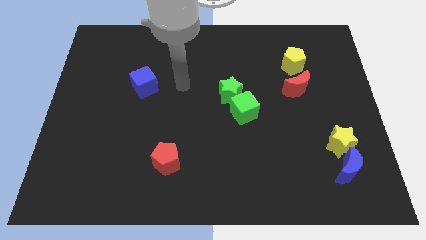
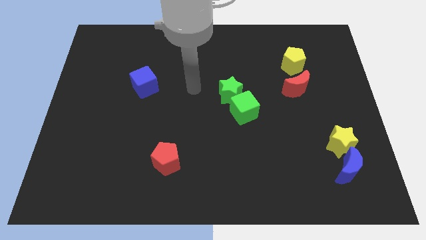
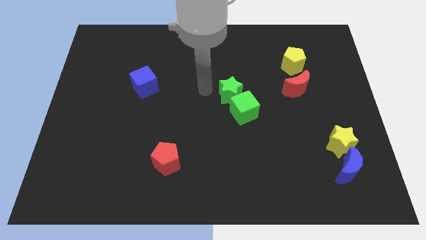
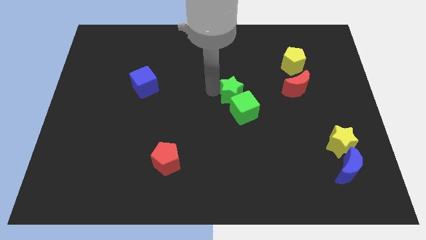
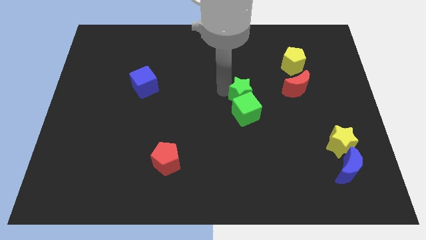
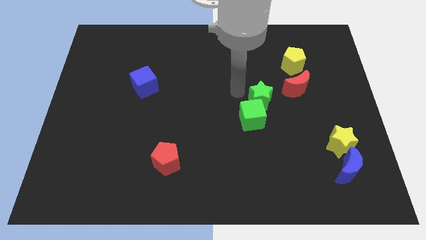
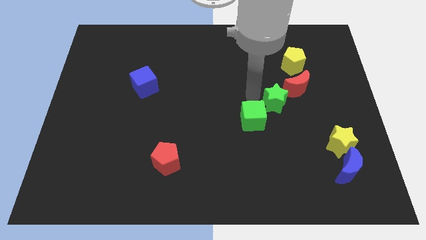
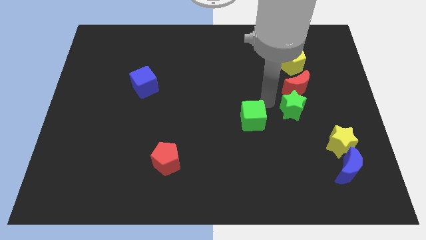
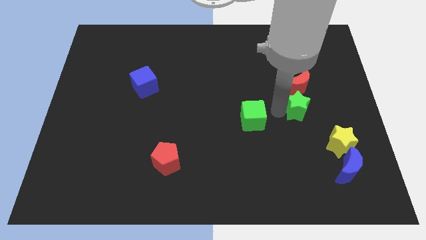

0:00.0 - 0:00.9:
move the green cube away from the green star

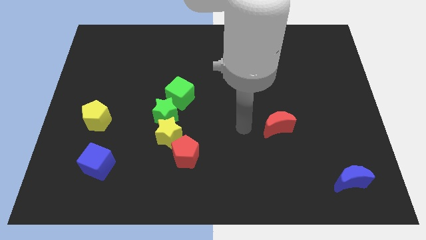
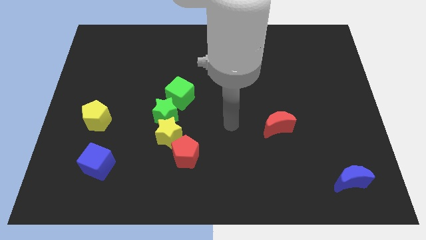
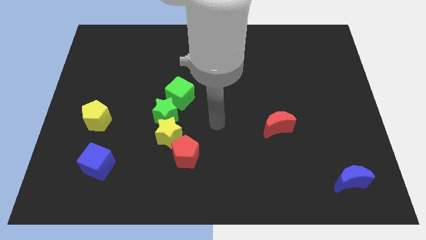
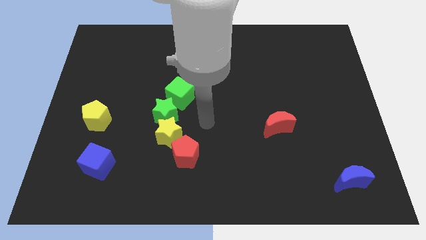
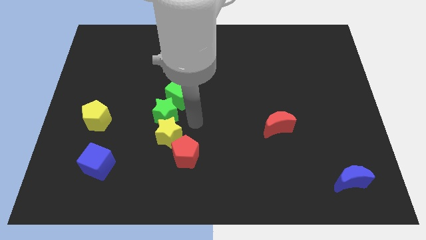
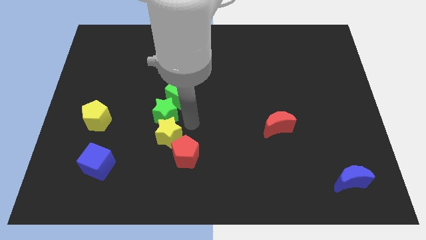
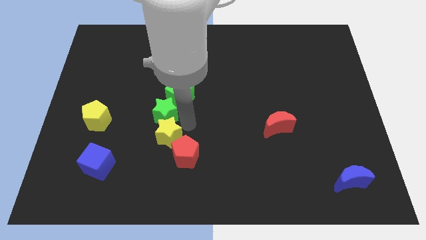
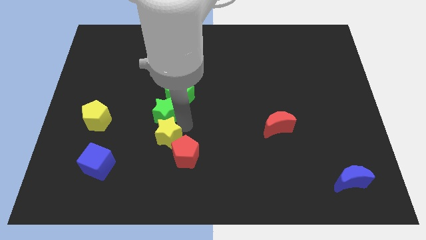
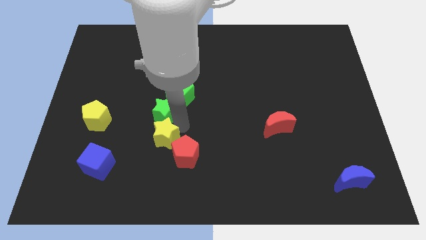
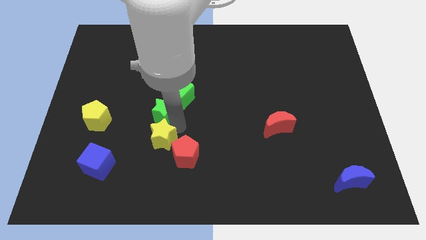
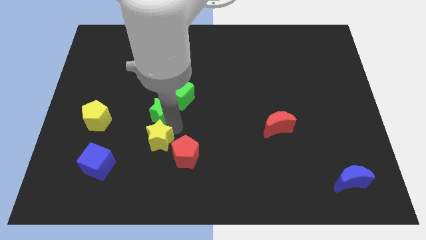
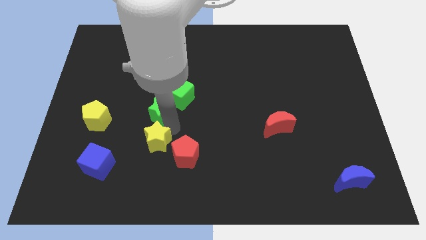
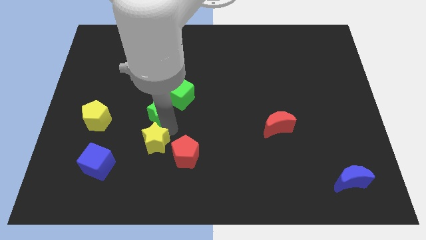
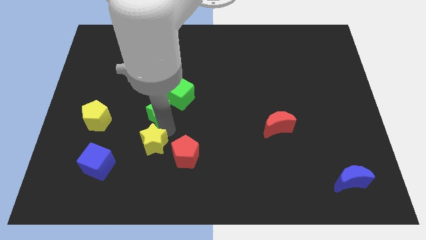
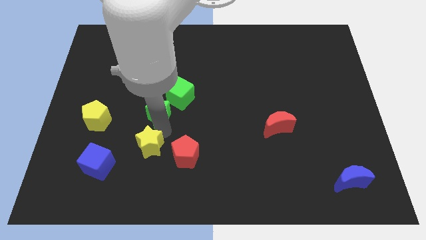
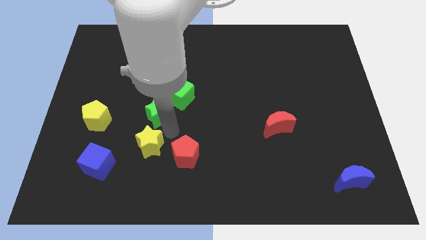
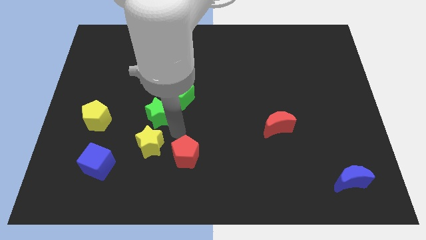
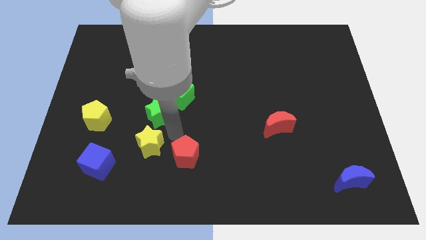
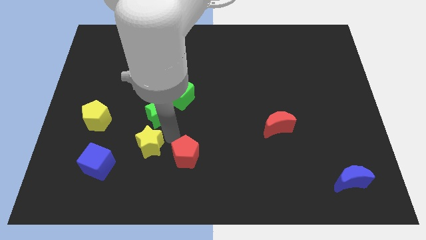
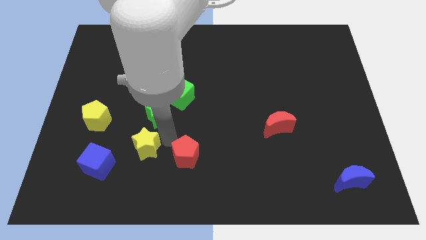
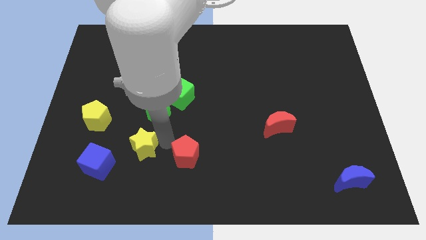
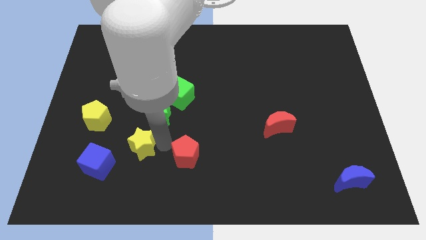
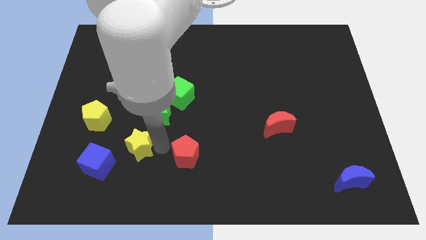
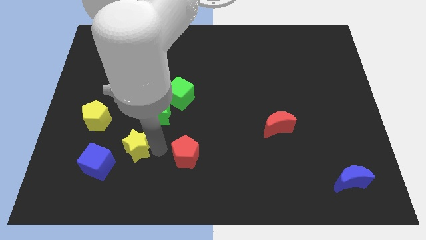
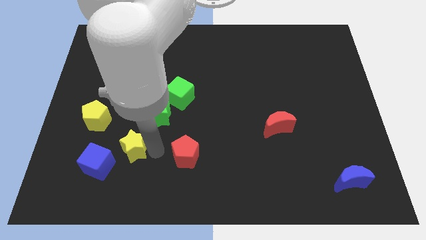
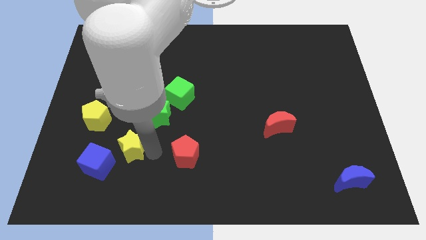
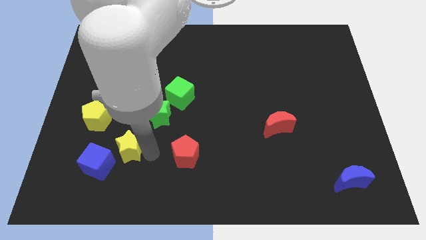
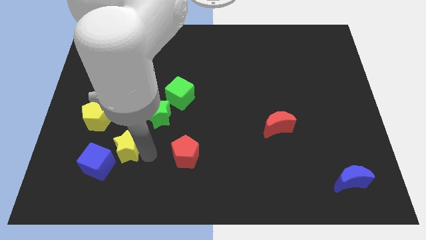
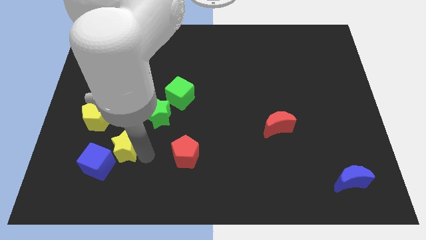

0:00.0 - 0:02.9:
separate the yellow star from the green star and red pentagon

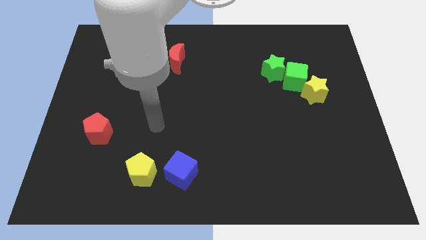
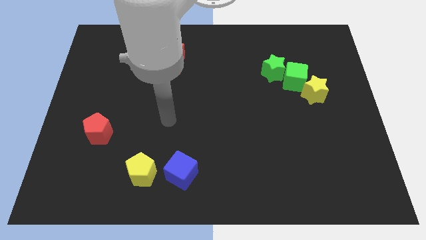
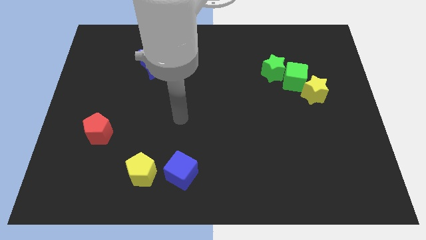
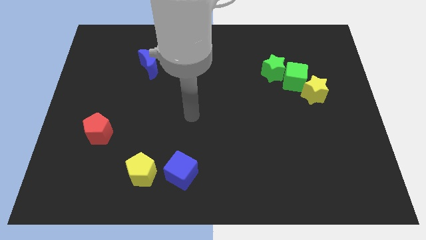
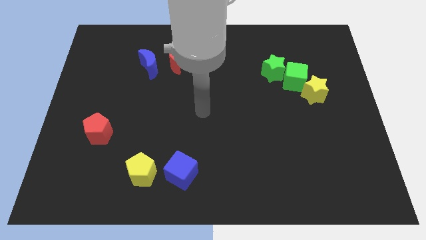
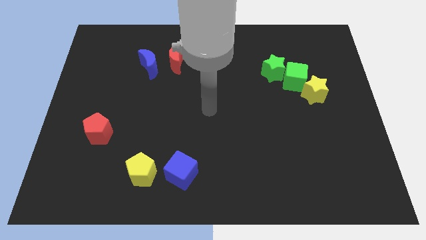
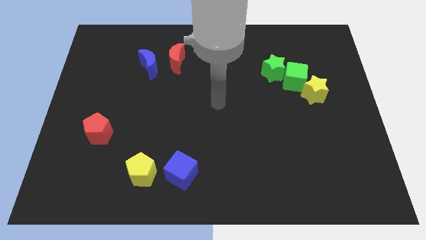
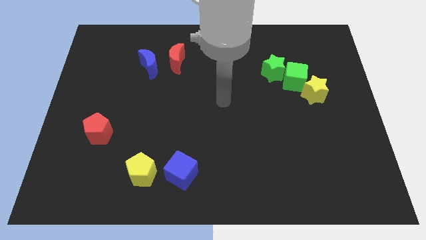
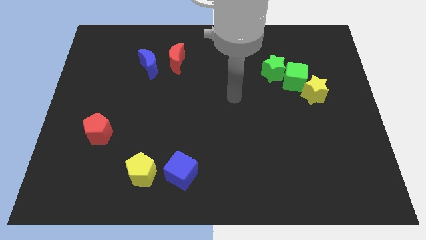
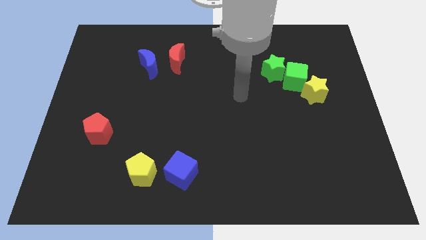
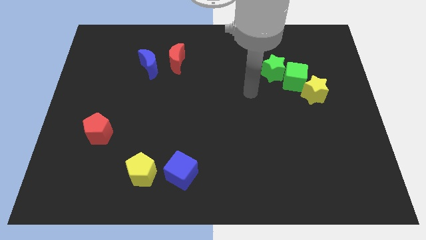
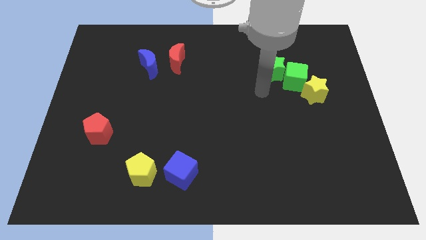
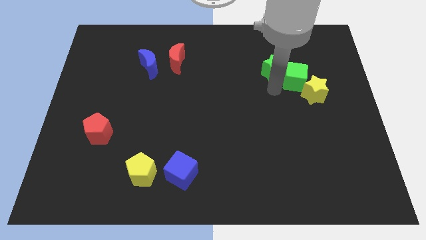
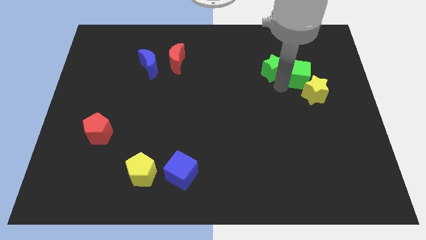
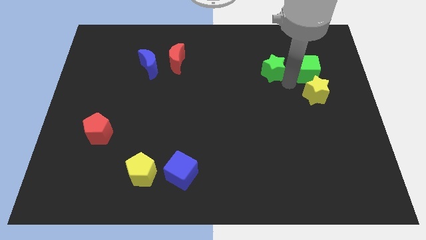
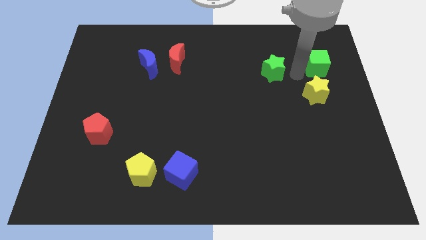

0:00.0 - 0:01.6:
separate the green star from the green cube

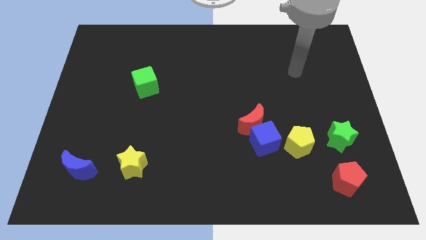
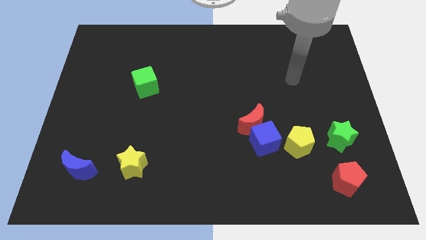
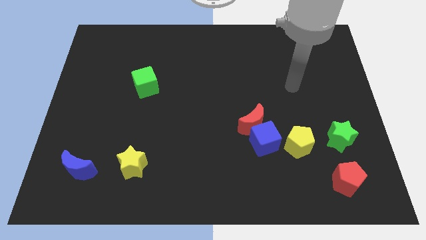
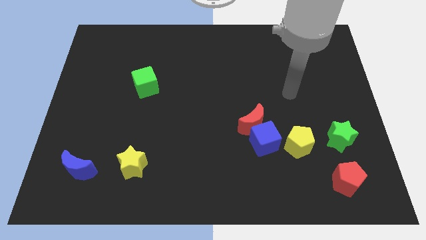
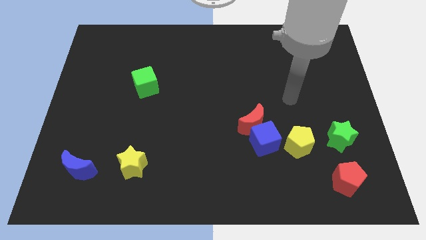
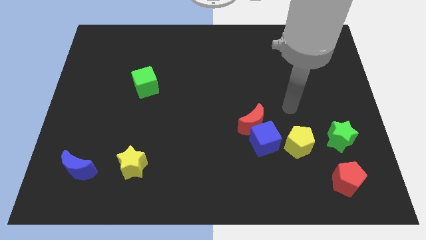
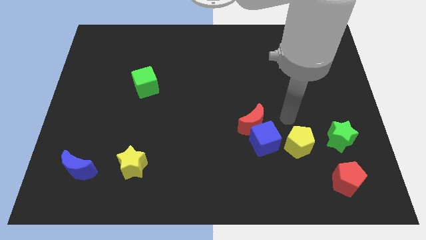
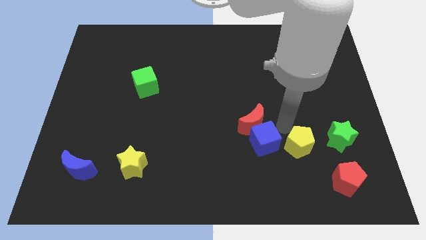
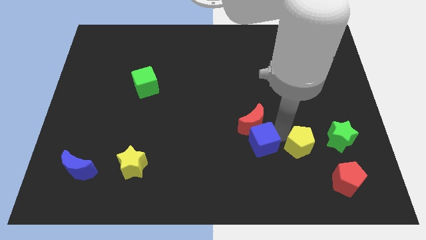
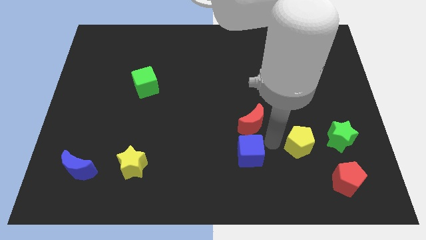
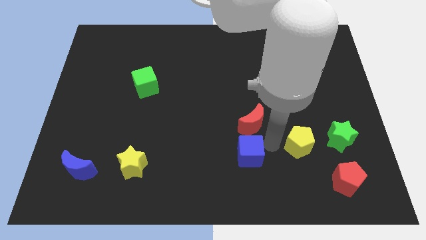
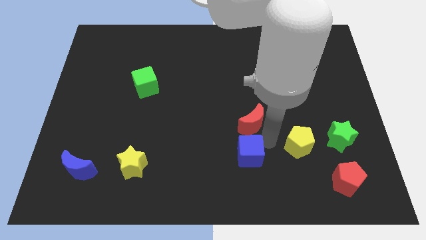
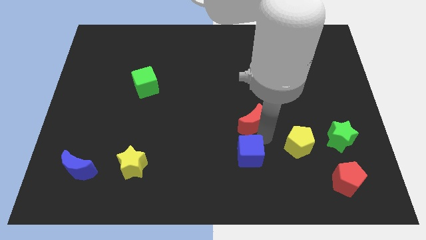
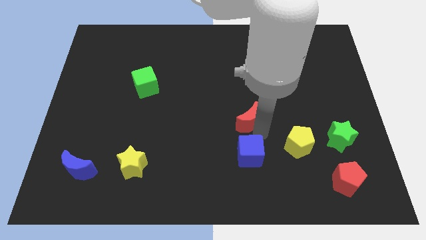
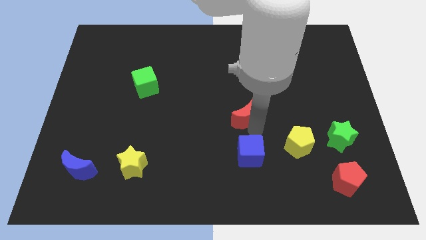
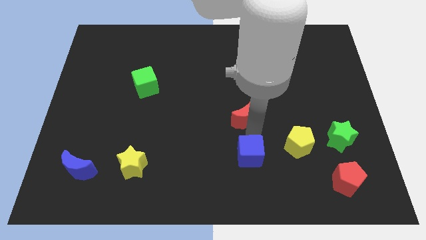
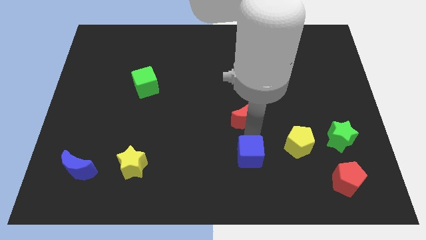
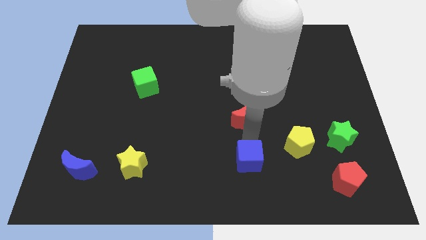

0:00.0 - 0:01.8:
move the red moon away from the blue cube

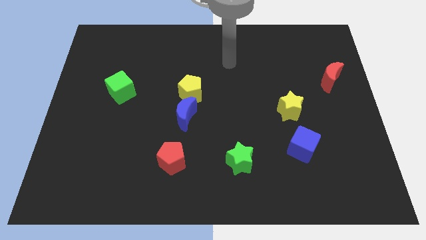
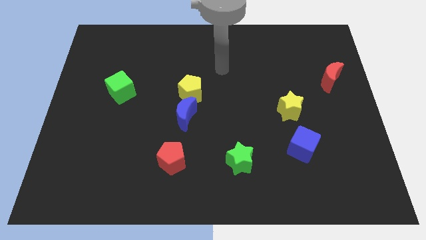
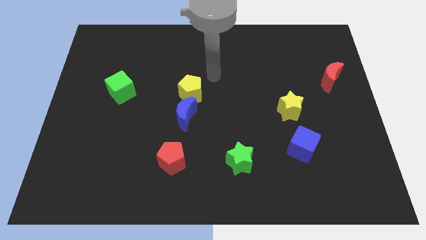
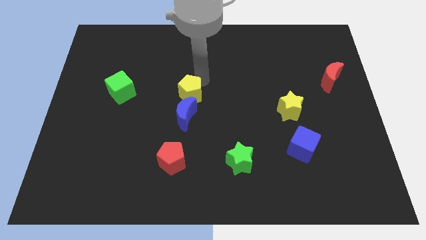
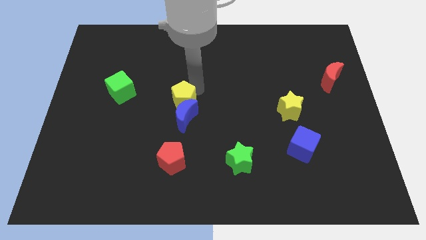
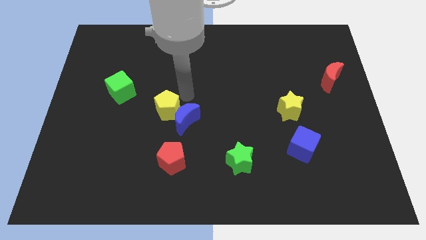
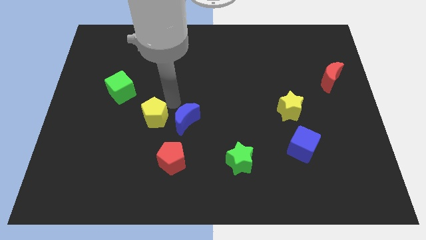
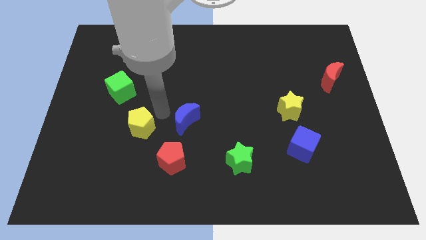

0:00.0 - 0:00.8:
pull the blue moon apart from the yellow pentagon

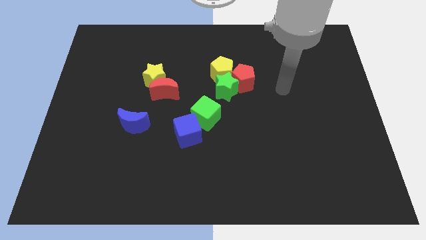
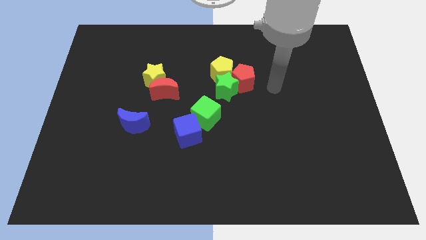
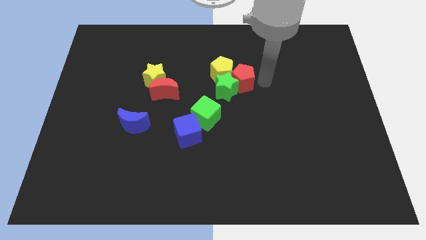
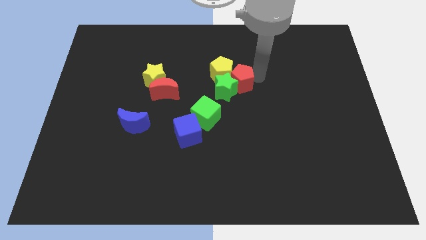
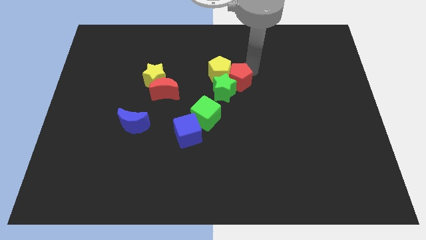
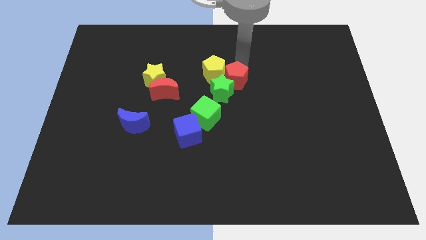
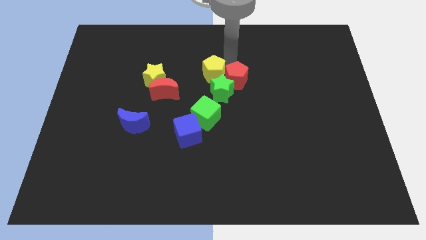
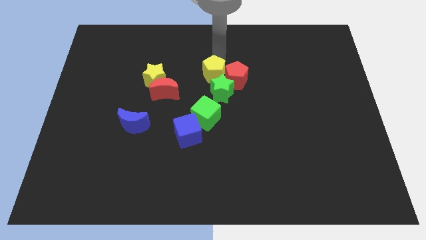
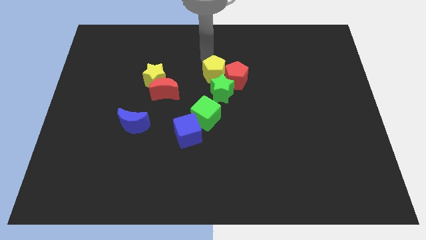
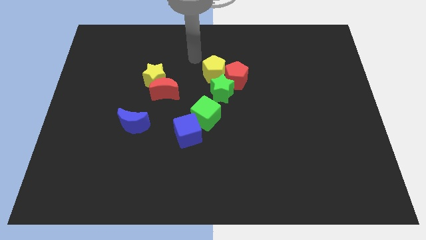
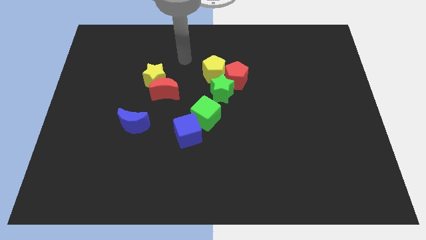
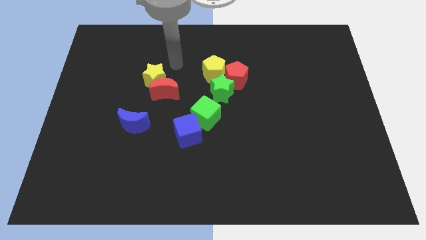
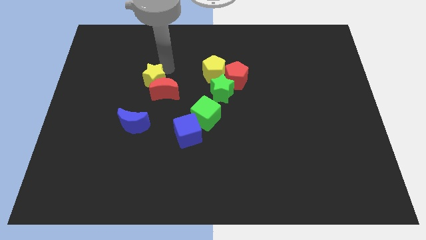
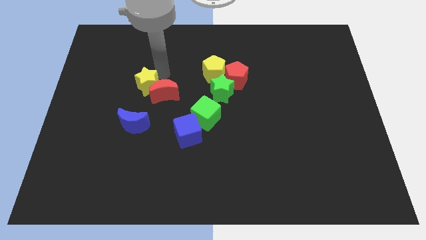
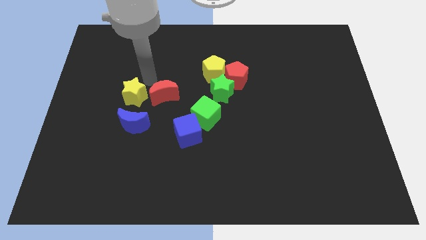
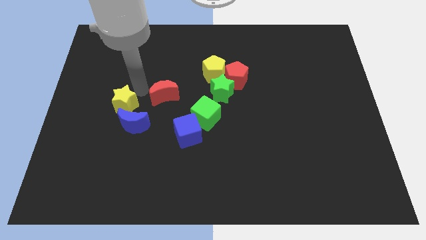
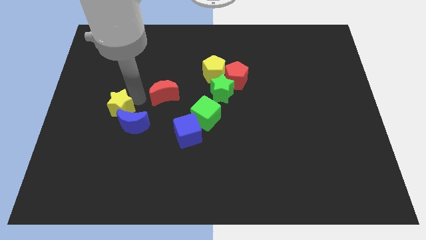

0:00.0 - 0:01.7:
pull the red moon apart from the yellow star
